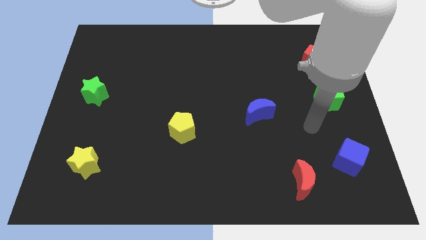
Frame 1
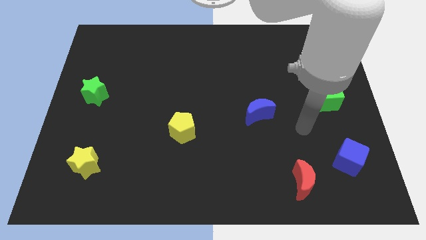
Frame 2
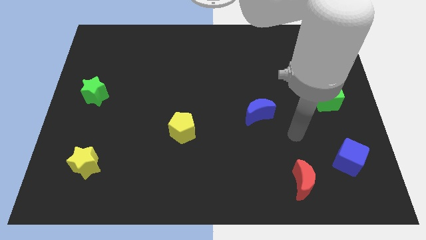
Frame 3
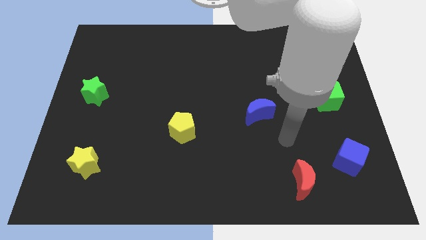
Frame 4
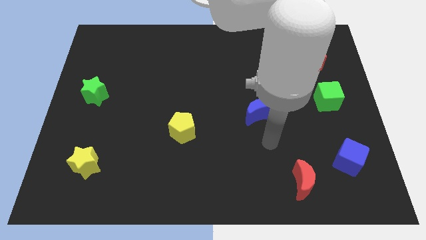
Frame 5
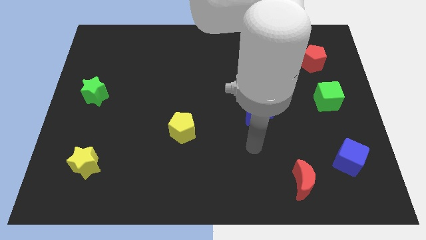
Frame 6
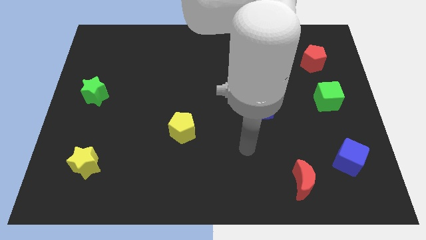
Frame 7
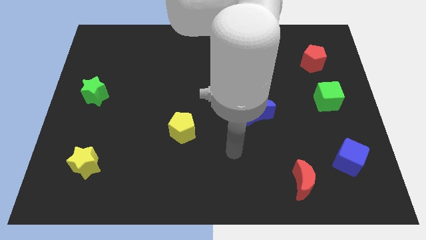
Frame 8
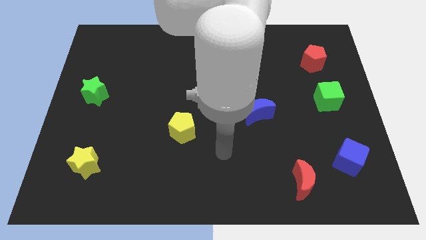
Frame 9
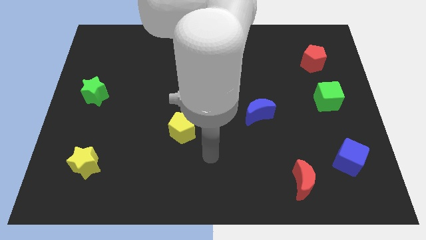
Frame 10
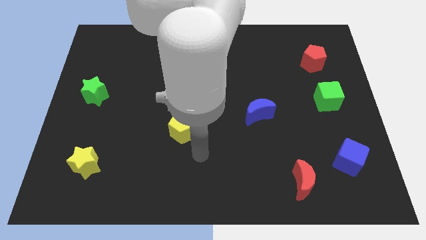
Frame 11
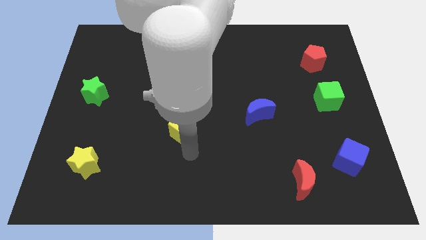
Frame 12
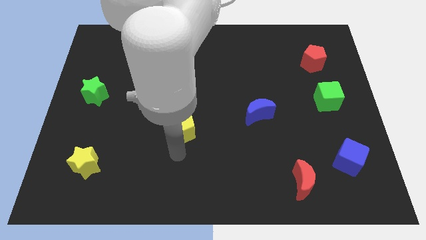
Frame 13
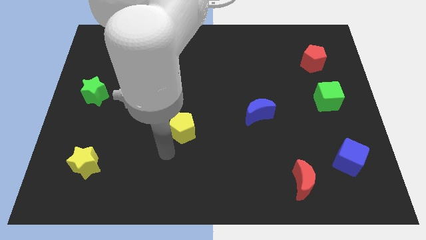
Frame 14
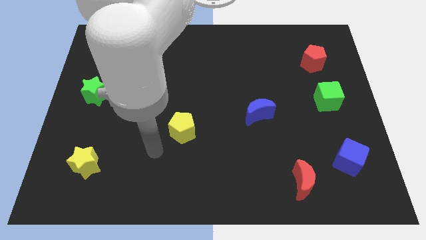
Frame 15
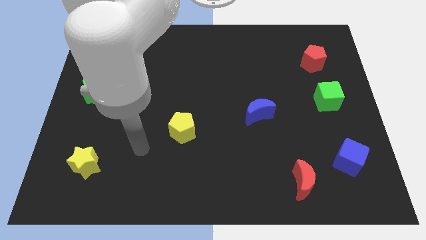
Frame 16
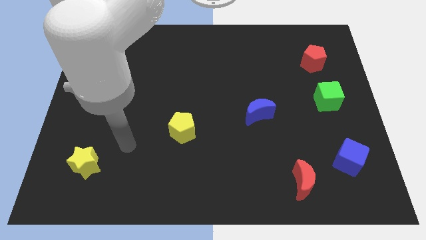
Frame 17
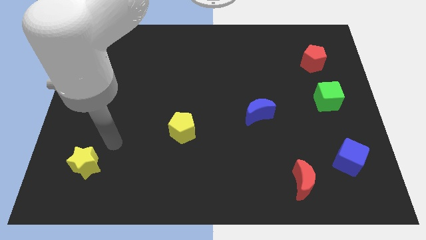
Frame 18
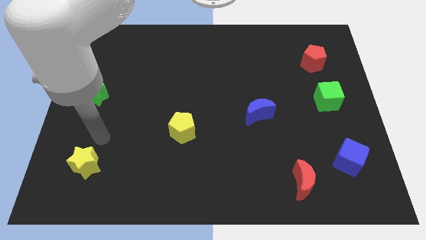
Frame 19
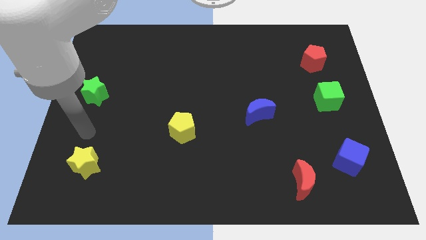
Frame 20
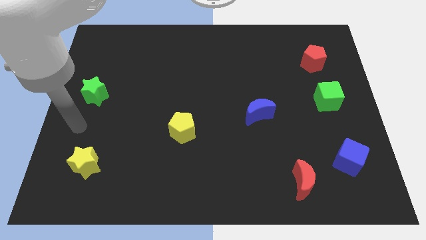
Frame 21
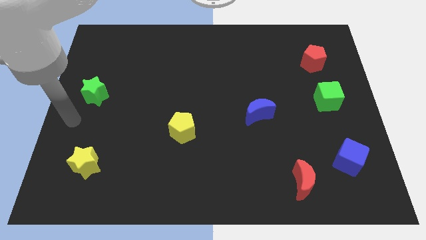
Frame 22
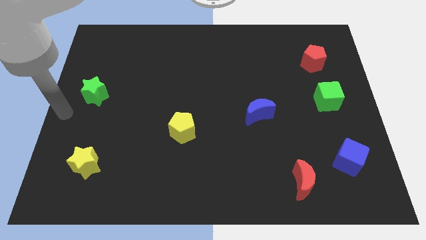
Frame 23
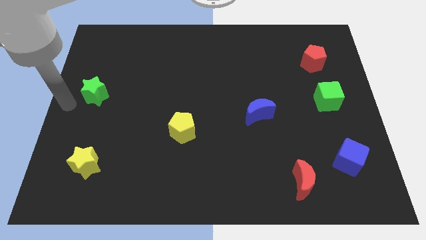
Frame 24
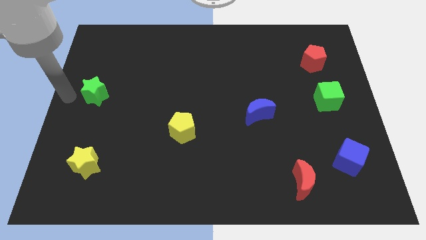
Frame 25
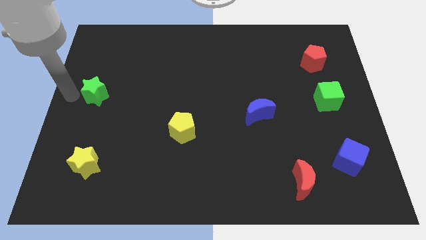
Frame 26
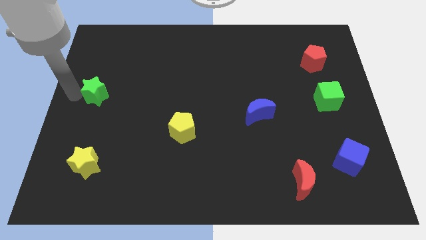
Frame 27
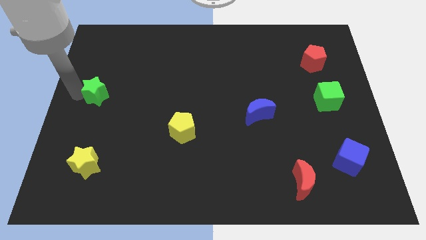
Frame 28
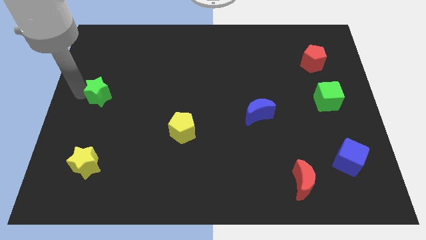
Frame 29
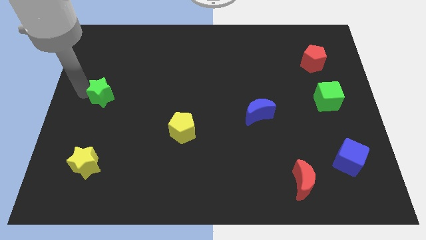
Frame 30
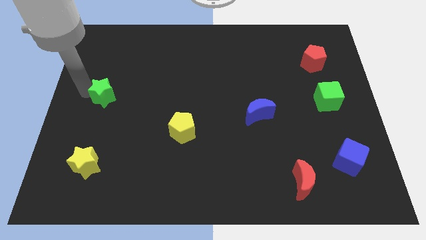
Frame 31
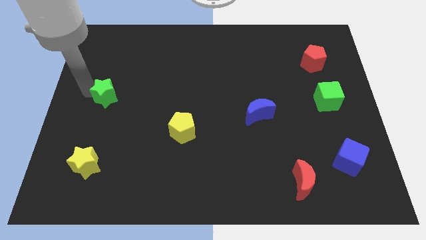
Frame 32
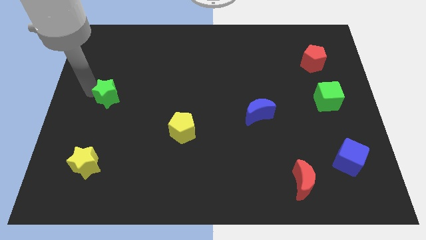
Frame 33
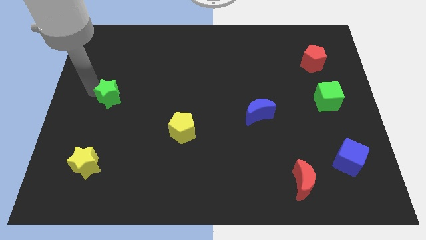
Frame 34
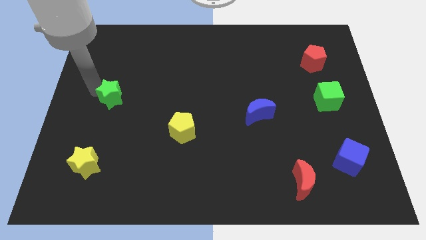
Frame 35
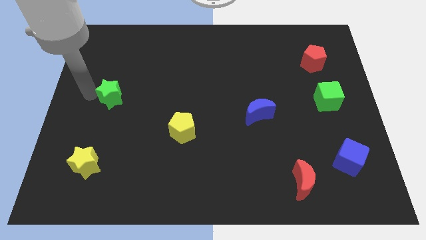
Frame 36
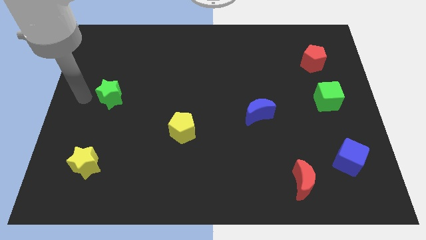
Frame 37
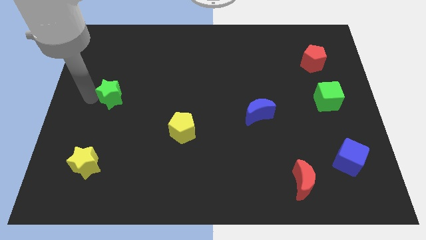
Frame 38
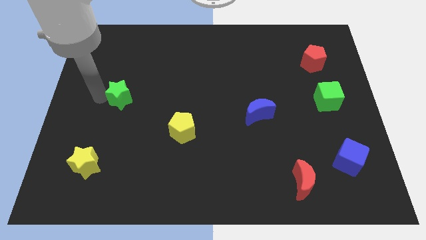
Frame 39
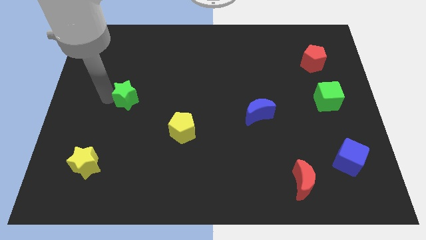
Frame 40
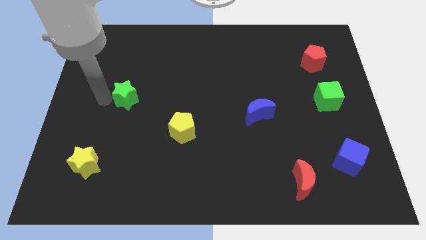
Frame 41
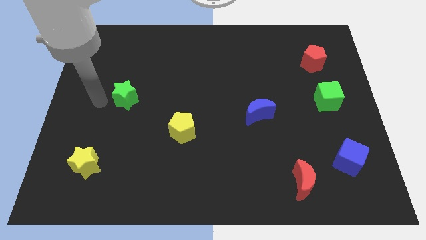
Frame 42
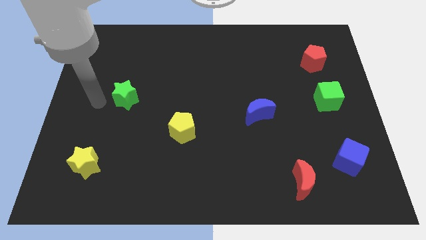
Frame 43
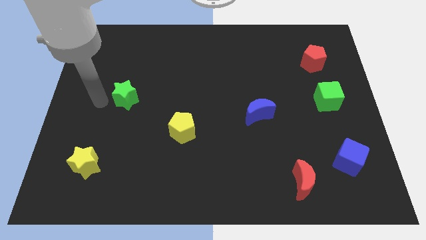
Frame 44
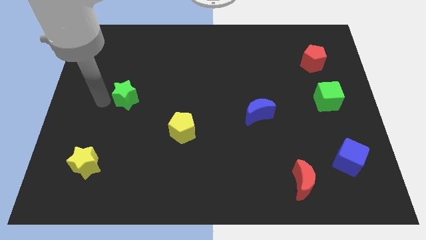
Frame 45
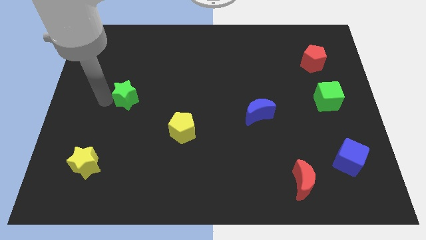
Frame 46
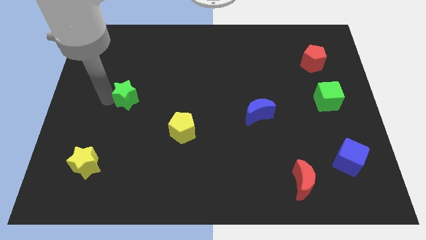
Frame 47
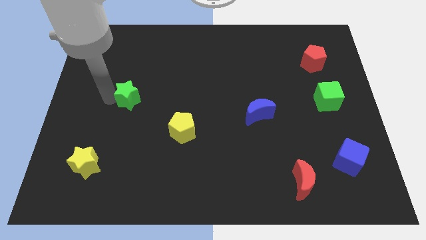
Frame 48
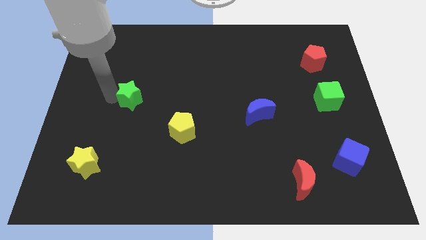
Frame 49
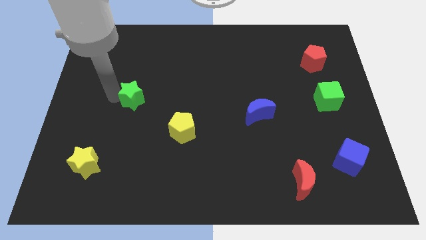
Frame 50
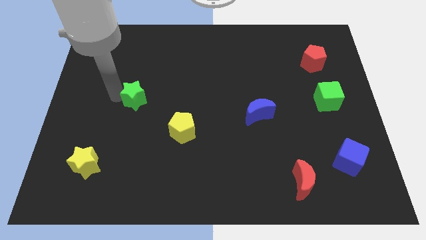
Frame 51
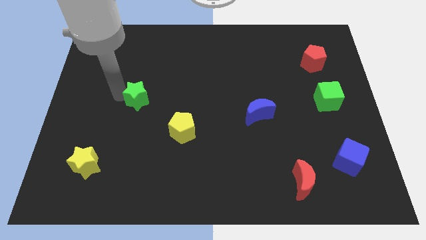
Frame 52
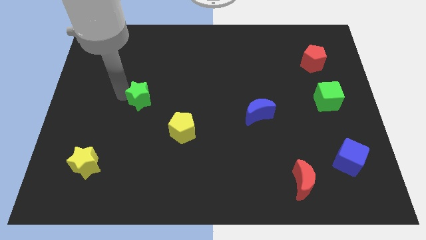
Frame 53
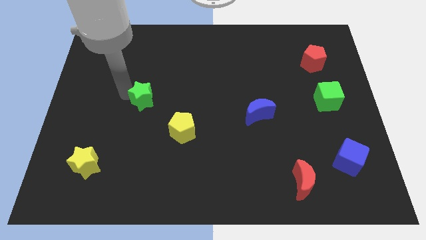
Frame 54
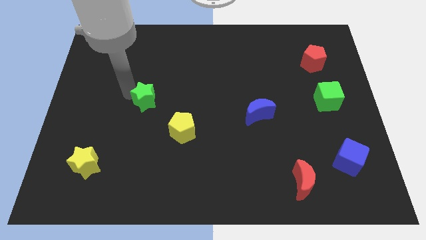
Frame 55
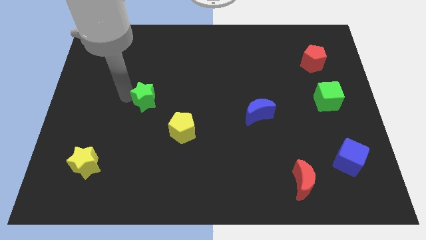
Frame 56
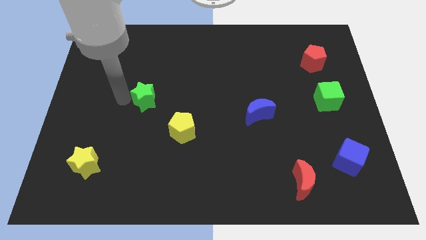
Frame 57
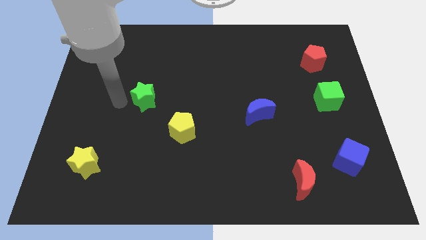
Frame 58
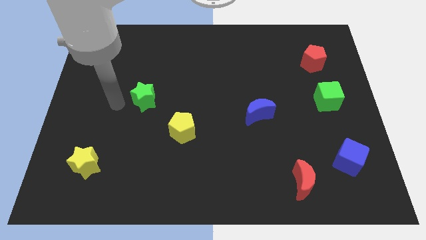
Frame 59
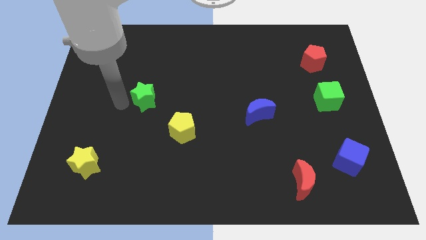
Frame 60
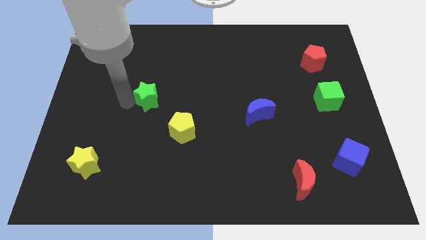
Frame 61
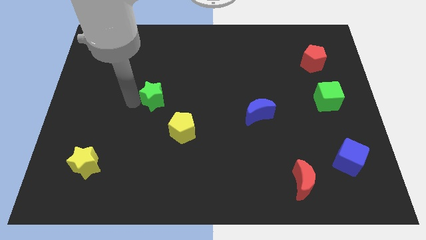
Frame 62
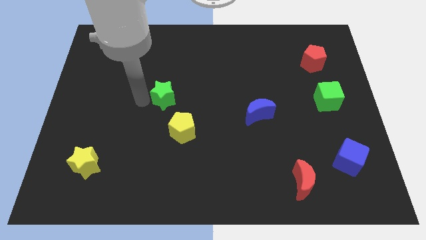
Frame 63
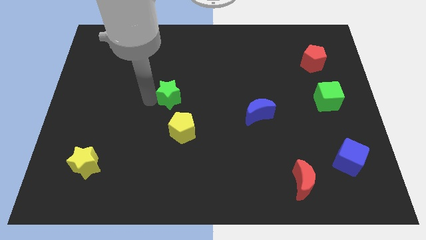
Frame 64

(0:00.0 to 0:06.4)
put the green star to the top side of the yellow pentagon

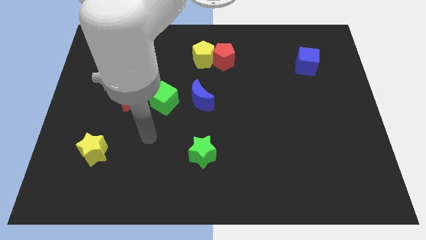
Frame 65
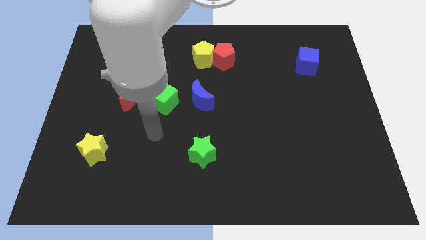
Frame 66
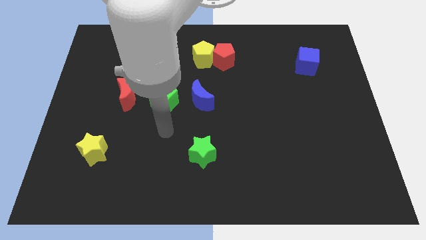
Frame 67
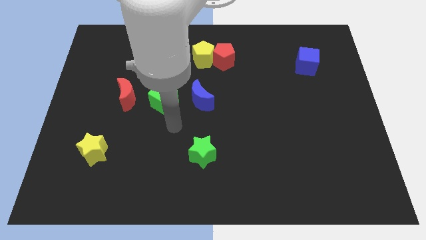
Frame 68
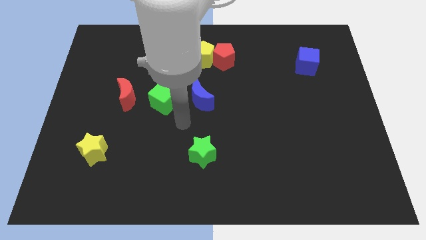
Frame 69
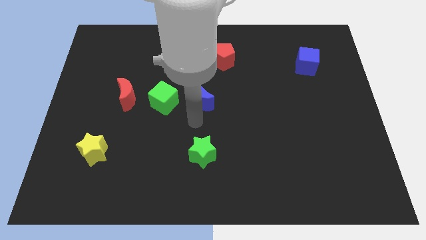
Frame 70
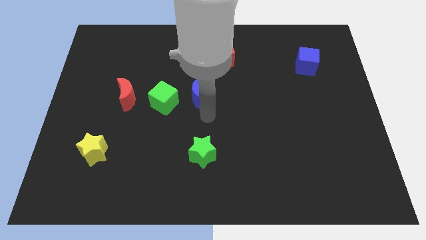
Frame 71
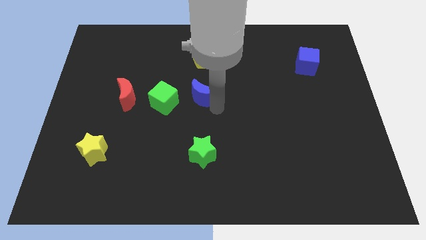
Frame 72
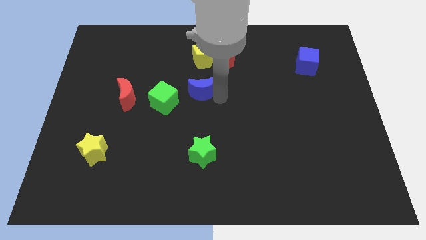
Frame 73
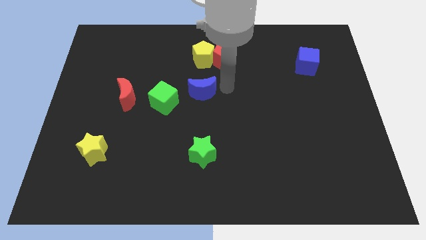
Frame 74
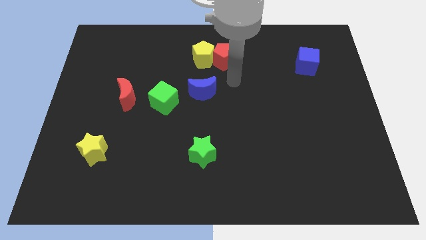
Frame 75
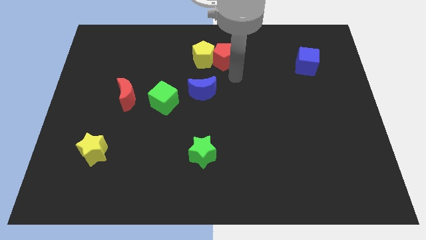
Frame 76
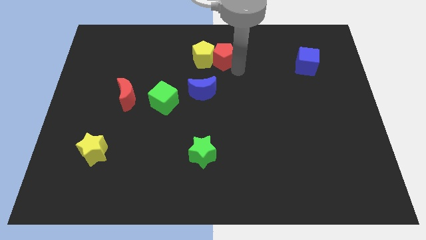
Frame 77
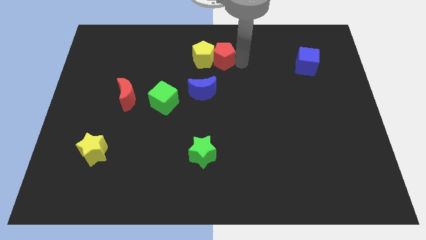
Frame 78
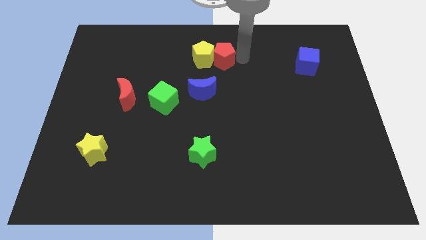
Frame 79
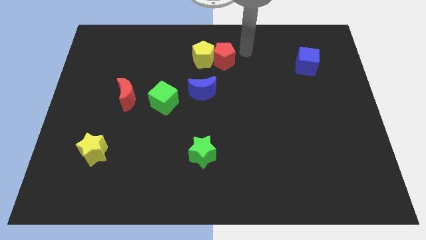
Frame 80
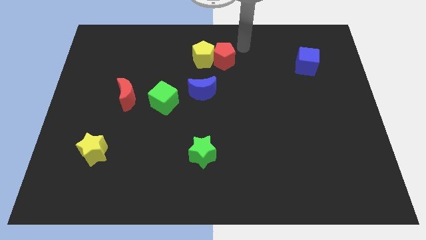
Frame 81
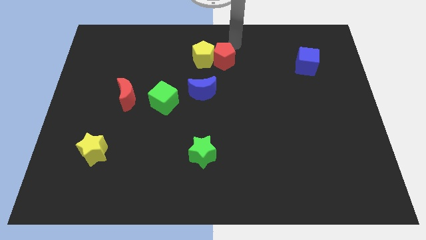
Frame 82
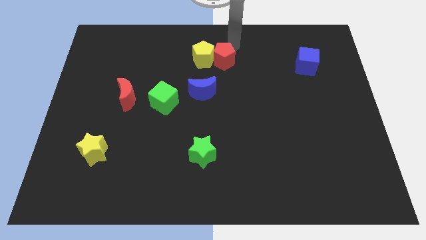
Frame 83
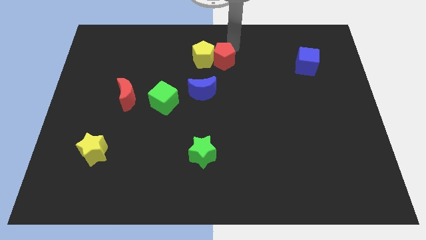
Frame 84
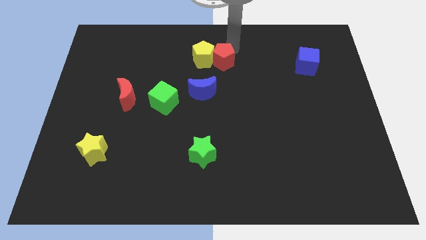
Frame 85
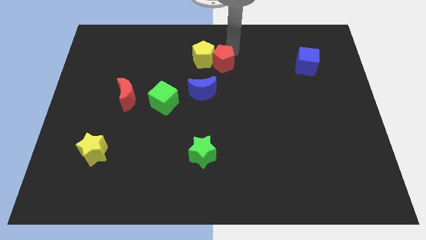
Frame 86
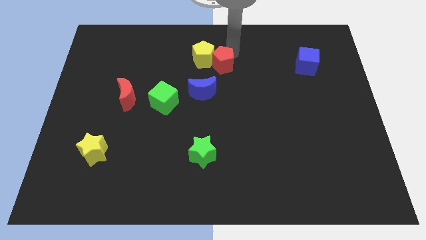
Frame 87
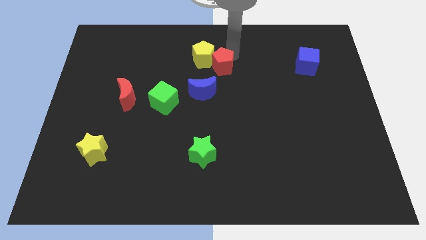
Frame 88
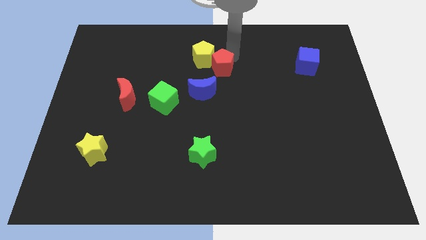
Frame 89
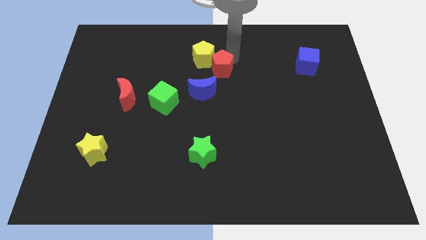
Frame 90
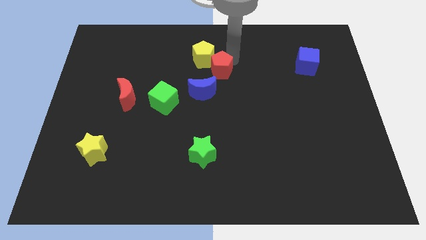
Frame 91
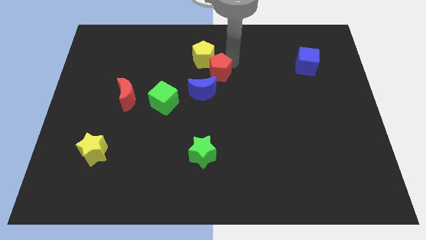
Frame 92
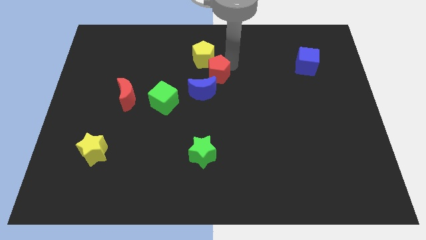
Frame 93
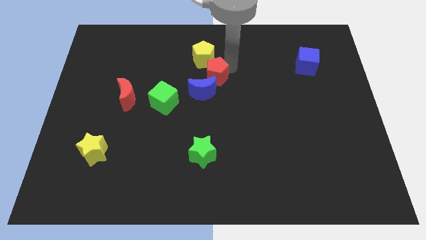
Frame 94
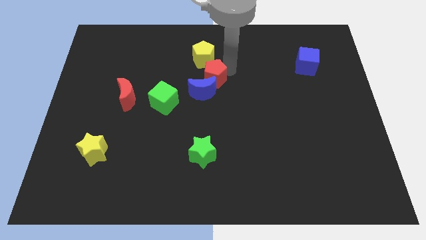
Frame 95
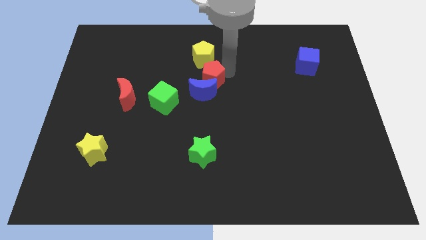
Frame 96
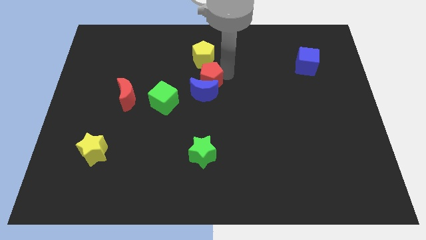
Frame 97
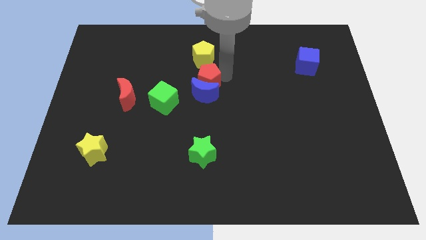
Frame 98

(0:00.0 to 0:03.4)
slide the red pentagon to the top right side of the green cube
